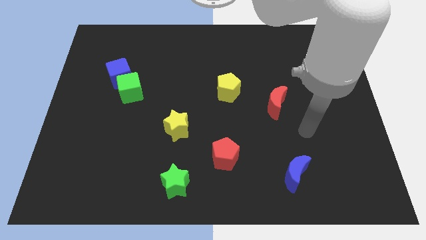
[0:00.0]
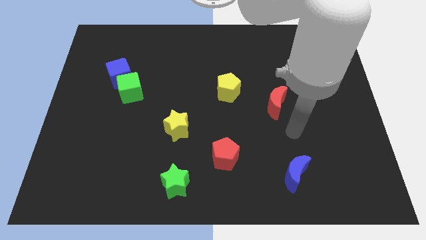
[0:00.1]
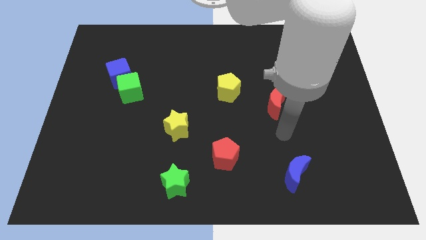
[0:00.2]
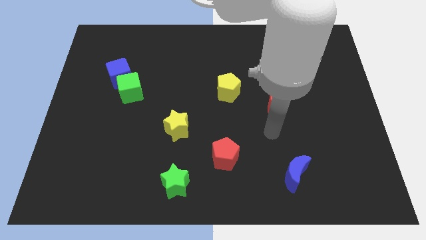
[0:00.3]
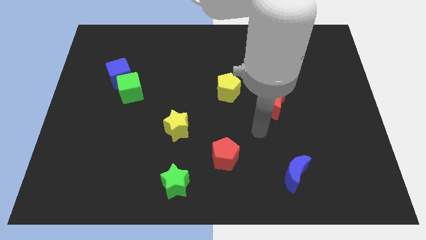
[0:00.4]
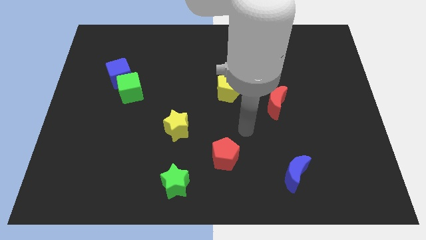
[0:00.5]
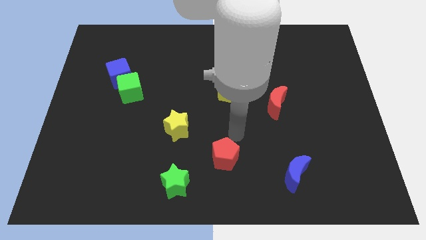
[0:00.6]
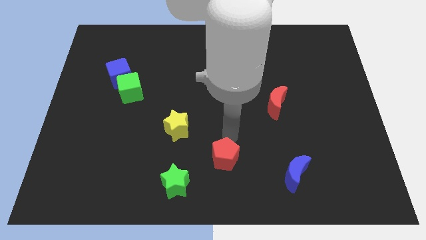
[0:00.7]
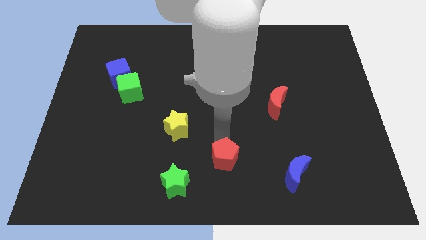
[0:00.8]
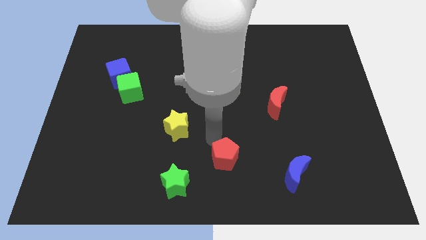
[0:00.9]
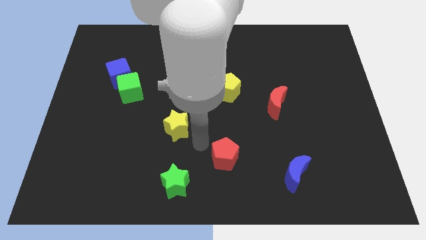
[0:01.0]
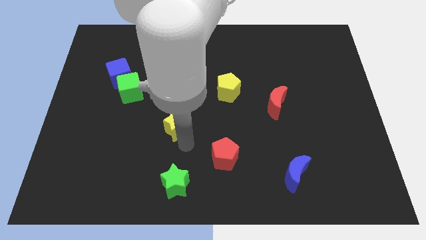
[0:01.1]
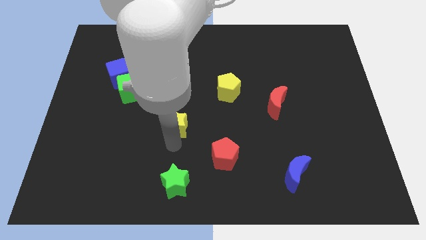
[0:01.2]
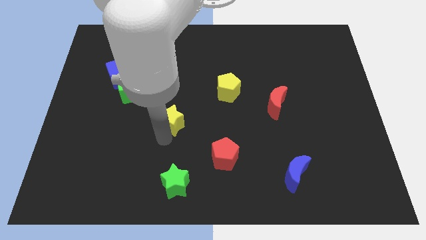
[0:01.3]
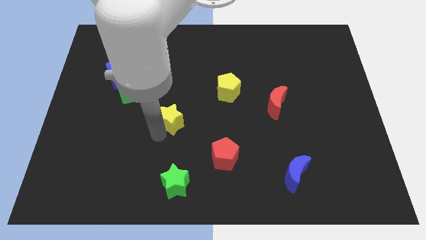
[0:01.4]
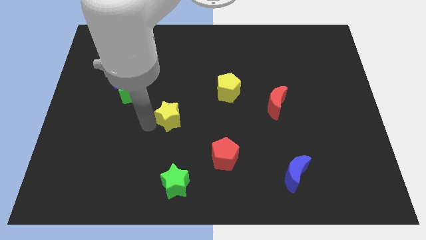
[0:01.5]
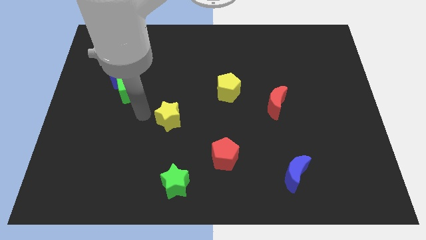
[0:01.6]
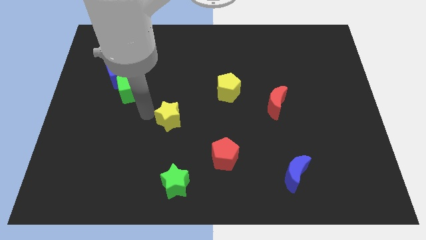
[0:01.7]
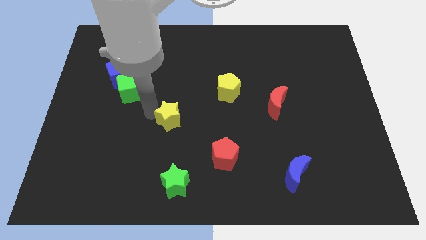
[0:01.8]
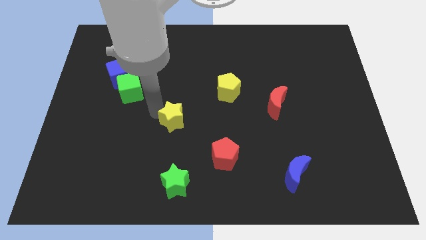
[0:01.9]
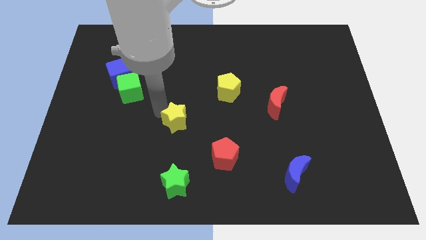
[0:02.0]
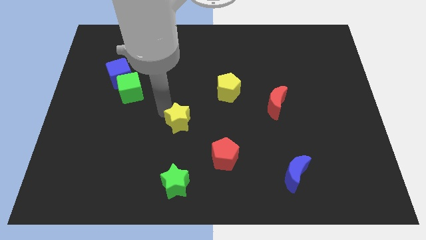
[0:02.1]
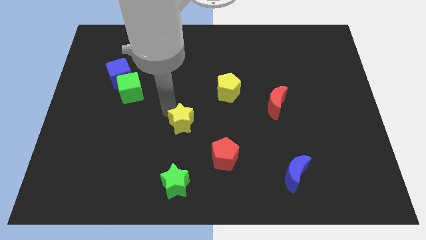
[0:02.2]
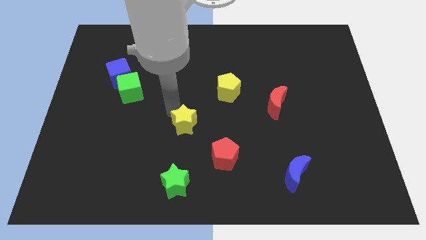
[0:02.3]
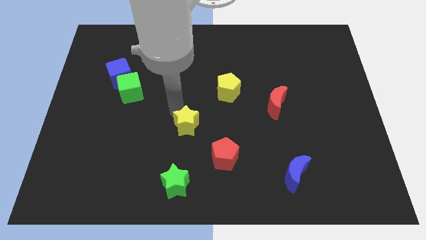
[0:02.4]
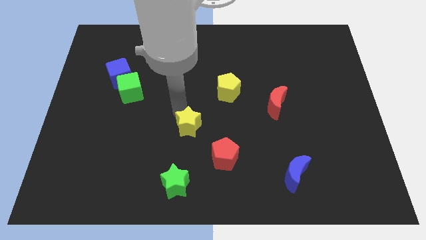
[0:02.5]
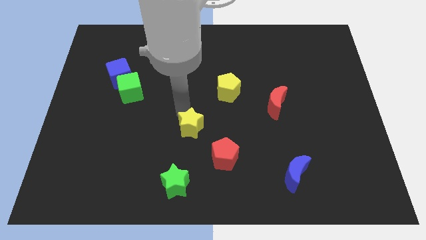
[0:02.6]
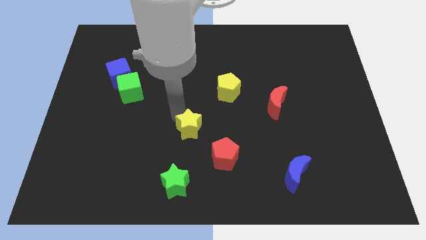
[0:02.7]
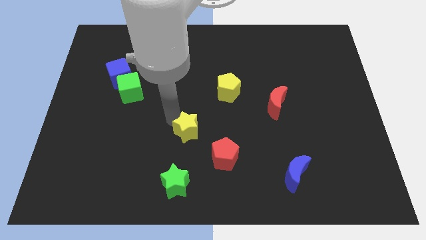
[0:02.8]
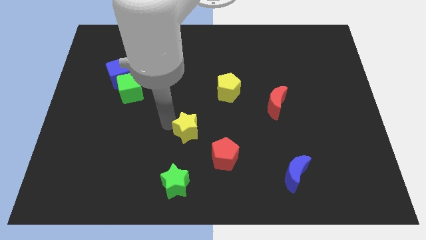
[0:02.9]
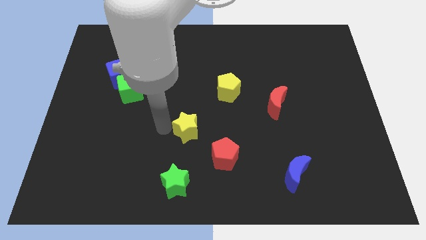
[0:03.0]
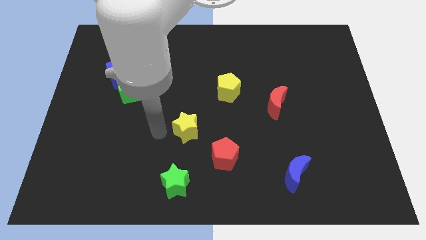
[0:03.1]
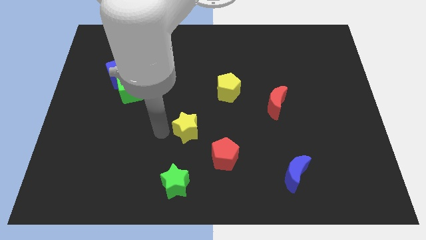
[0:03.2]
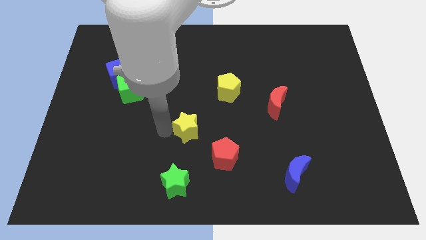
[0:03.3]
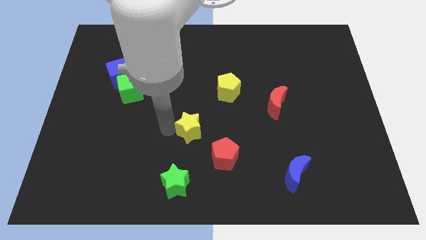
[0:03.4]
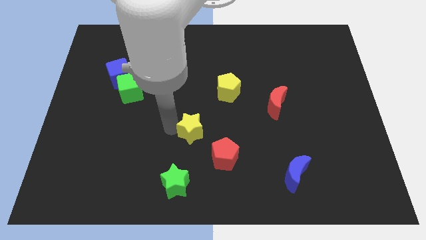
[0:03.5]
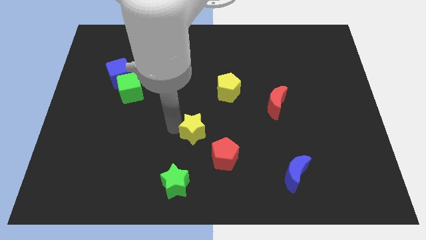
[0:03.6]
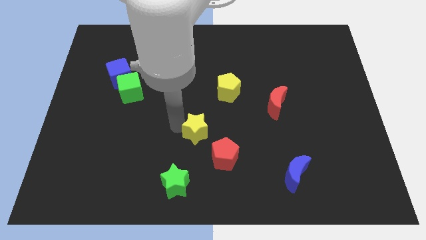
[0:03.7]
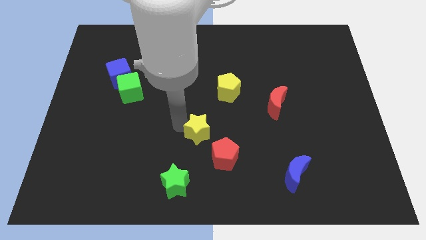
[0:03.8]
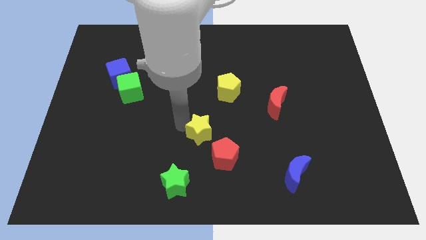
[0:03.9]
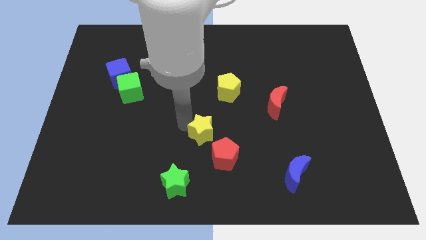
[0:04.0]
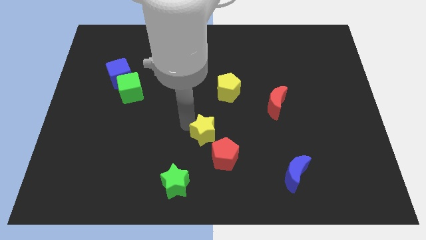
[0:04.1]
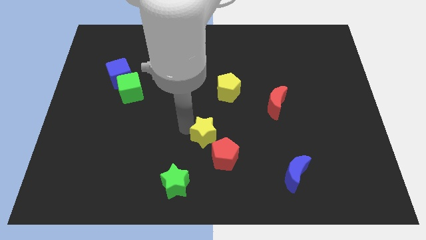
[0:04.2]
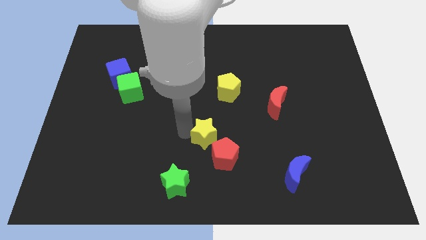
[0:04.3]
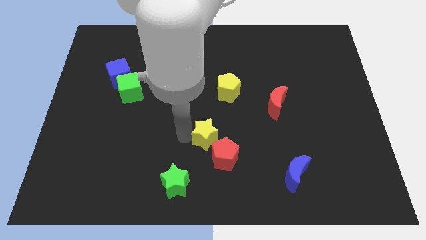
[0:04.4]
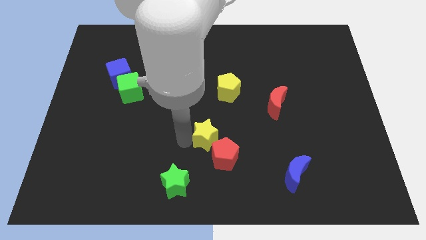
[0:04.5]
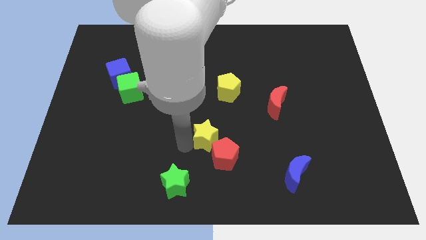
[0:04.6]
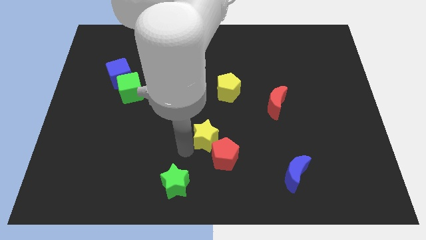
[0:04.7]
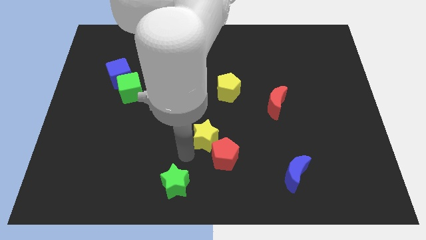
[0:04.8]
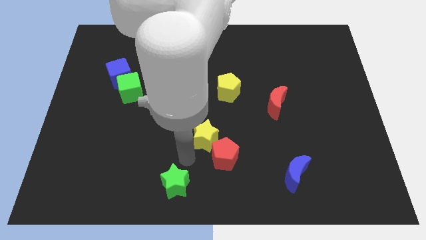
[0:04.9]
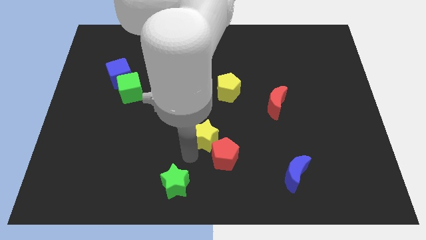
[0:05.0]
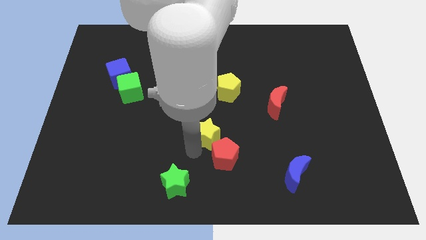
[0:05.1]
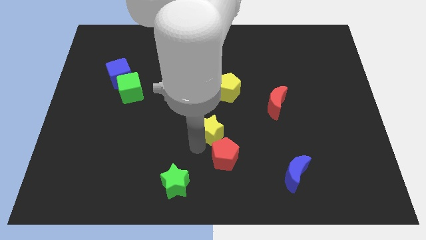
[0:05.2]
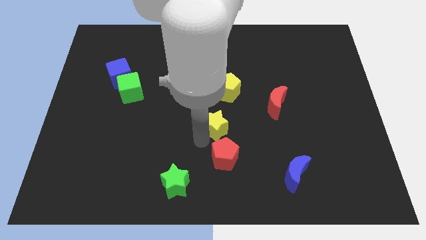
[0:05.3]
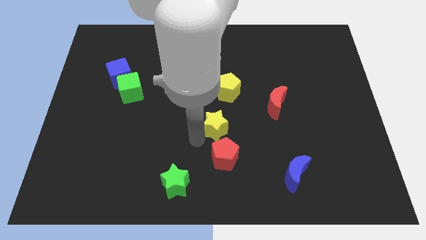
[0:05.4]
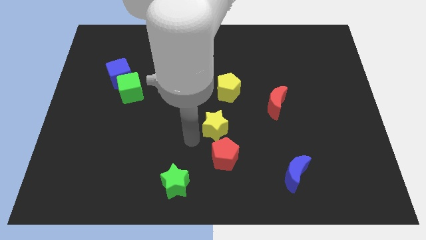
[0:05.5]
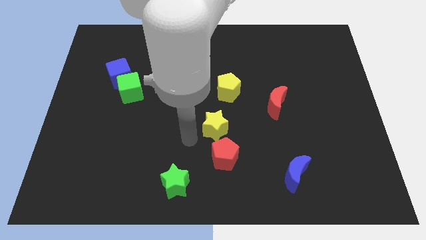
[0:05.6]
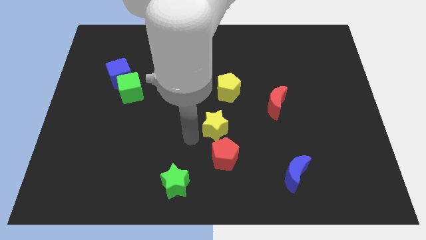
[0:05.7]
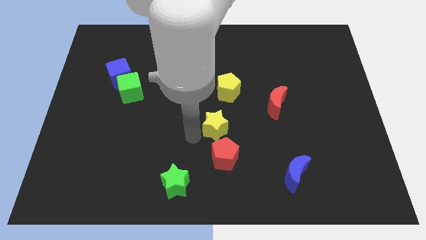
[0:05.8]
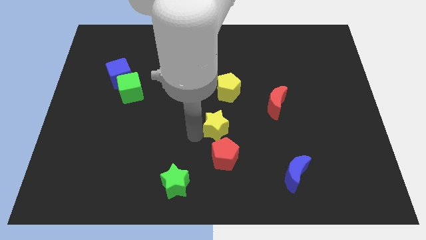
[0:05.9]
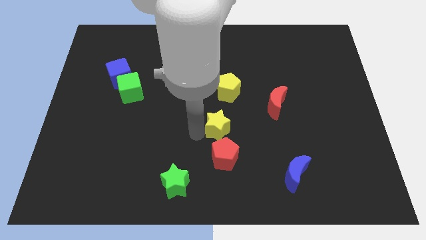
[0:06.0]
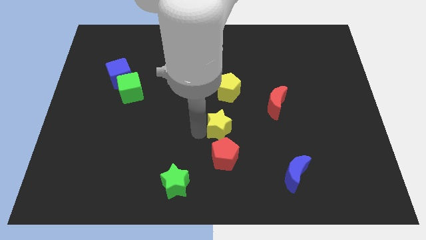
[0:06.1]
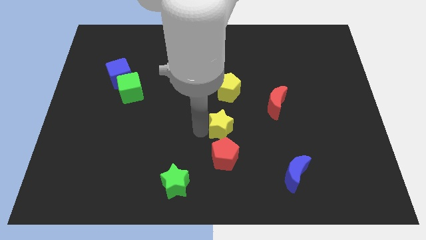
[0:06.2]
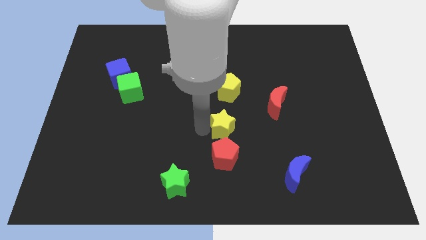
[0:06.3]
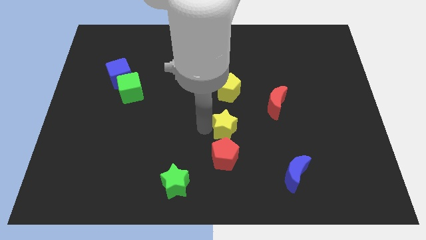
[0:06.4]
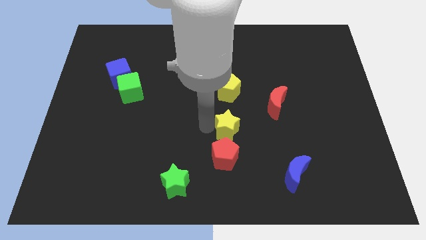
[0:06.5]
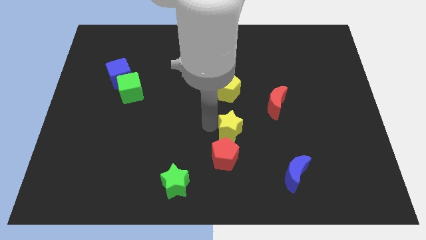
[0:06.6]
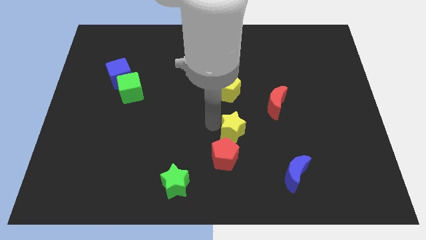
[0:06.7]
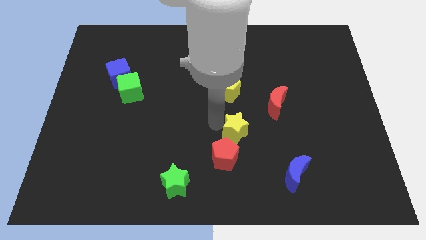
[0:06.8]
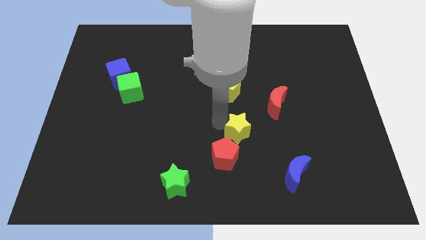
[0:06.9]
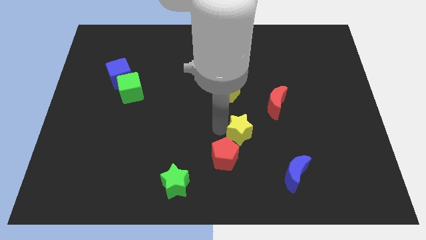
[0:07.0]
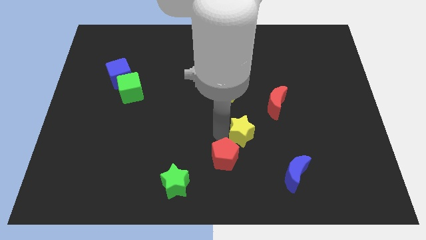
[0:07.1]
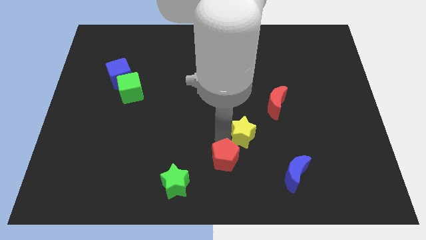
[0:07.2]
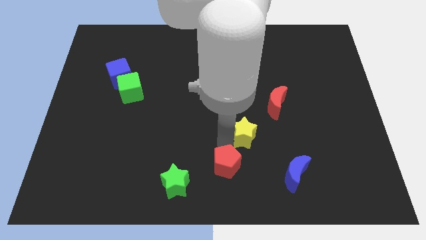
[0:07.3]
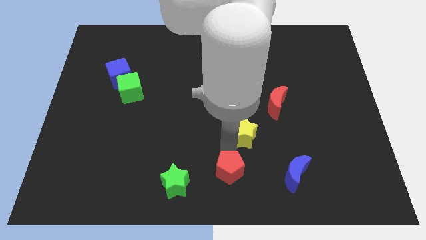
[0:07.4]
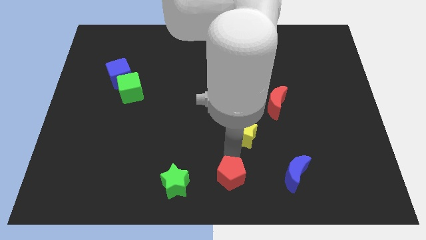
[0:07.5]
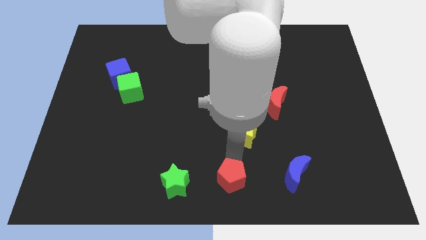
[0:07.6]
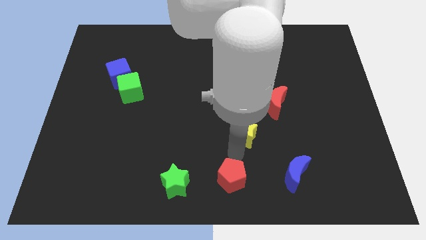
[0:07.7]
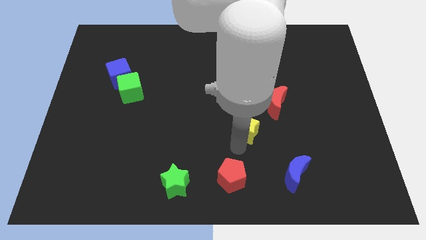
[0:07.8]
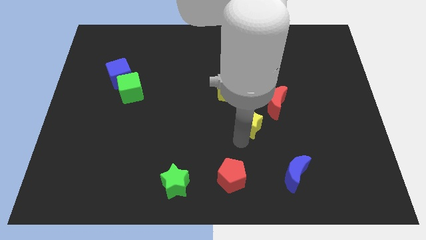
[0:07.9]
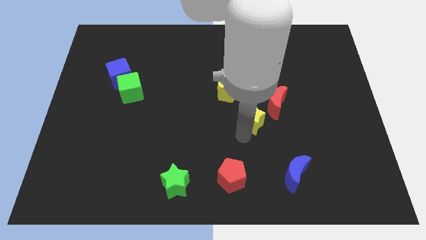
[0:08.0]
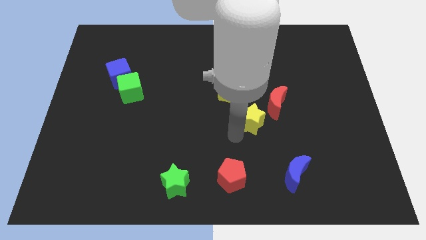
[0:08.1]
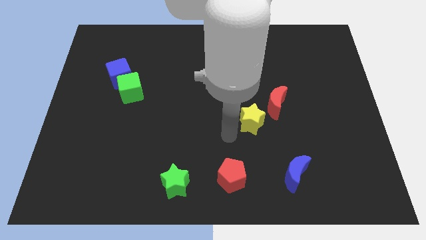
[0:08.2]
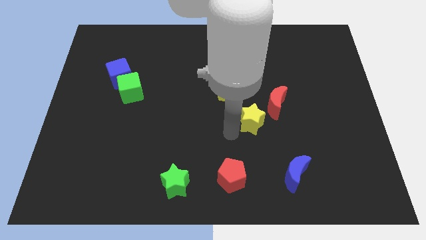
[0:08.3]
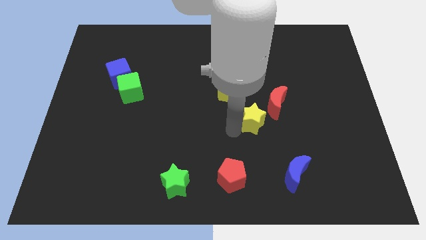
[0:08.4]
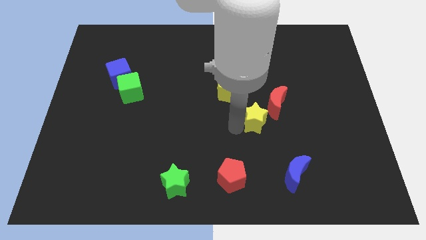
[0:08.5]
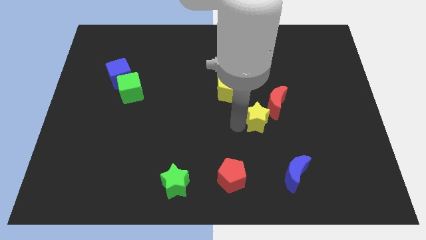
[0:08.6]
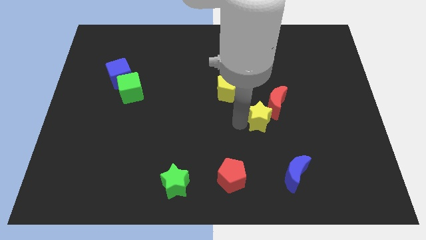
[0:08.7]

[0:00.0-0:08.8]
slide the yellow star to the red moon
